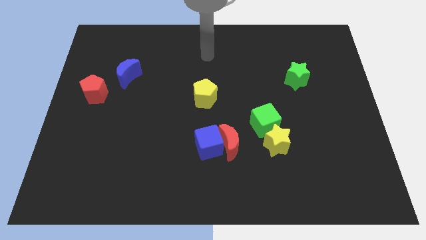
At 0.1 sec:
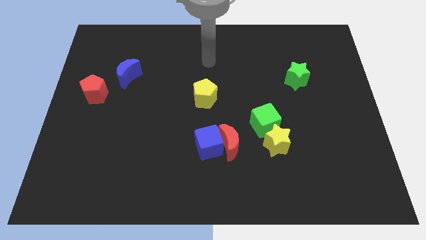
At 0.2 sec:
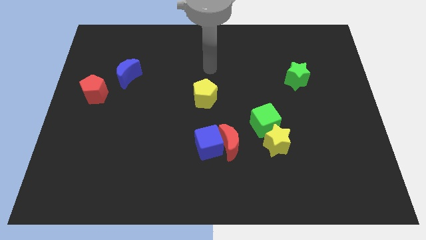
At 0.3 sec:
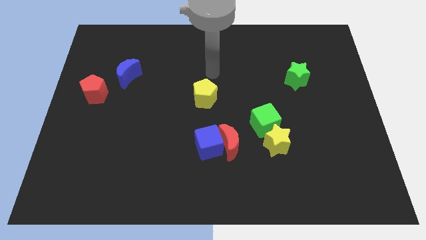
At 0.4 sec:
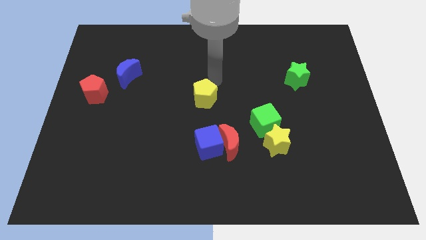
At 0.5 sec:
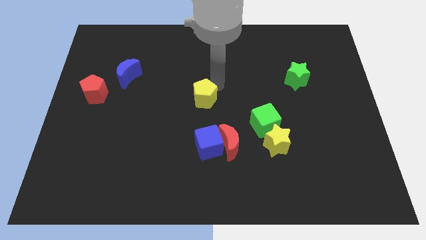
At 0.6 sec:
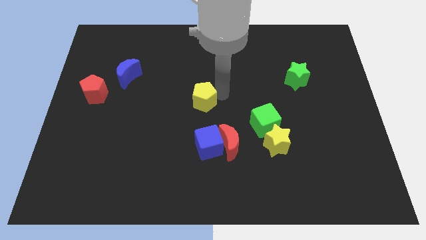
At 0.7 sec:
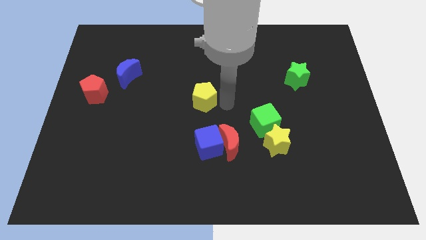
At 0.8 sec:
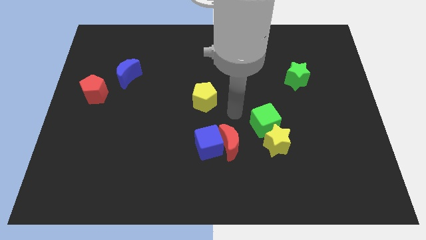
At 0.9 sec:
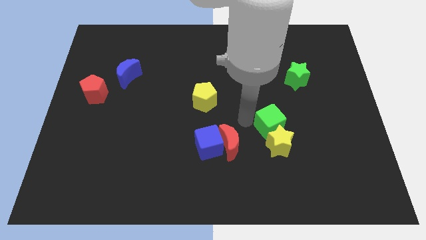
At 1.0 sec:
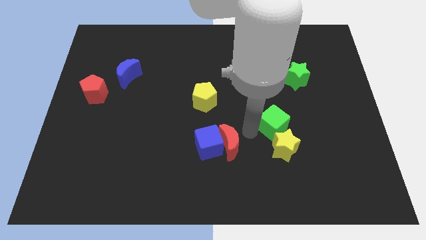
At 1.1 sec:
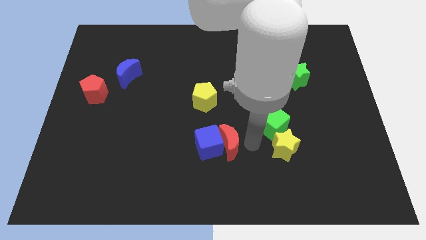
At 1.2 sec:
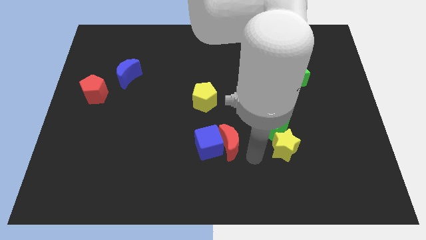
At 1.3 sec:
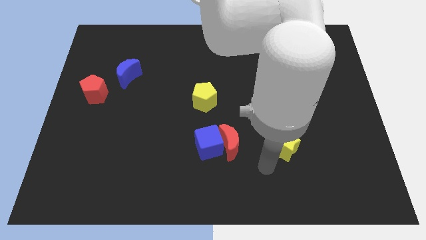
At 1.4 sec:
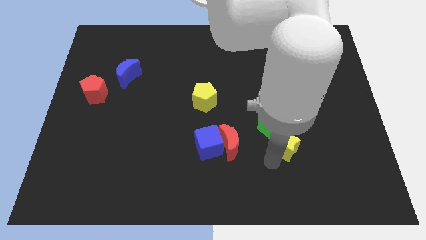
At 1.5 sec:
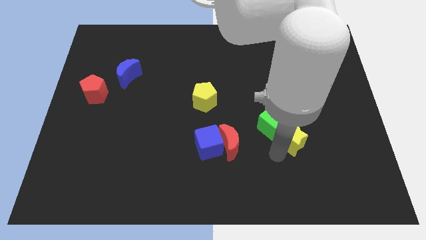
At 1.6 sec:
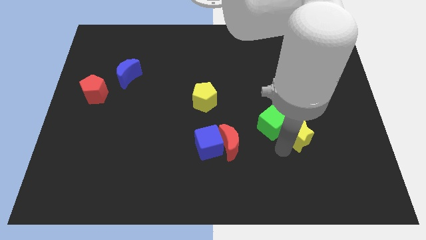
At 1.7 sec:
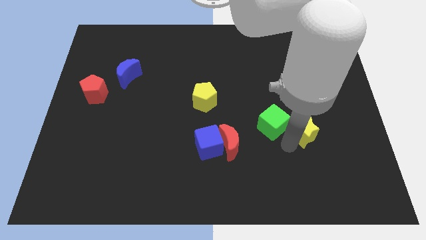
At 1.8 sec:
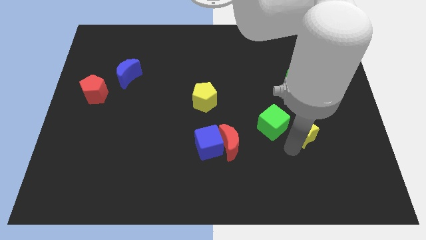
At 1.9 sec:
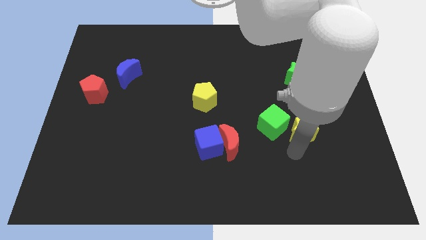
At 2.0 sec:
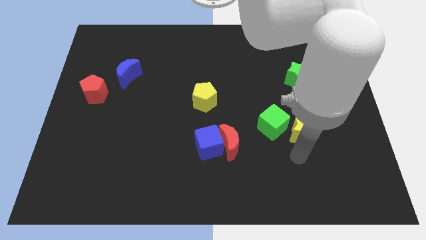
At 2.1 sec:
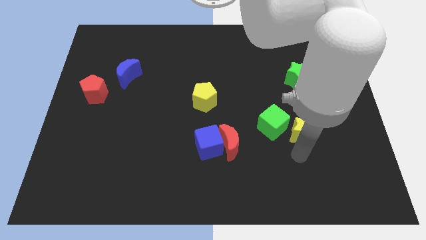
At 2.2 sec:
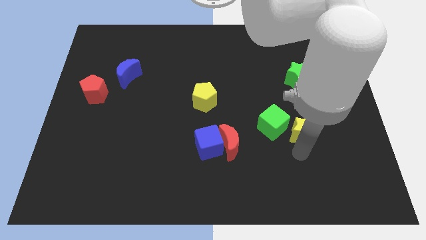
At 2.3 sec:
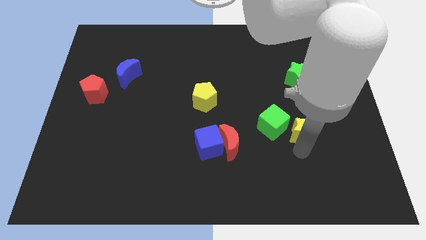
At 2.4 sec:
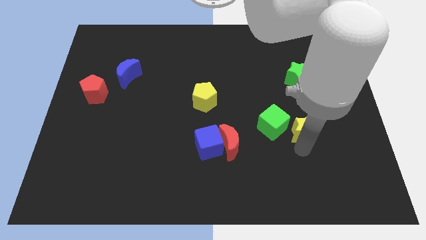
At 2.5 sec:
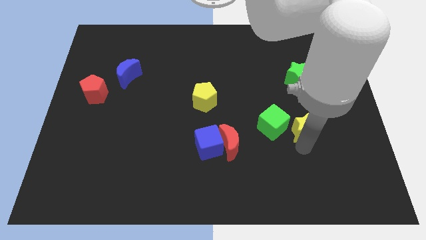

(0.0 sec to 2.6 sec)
slightly push the yellow star upwards and then right

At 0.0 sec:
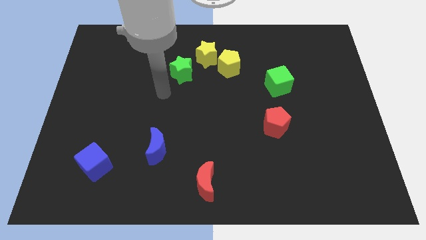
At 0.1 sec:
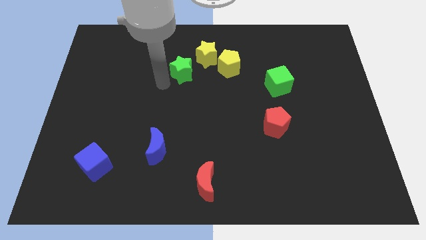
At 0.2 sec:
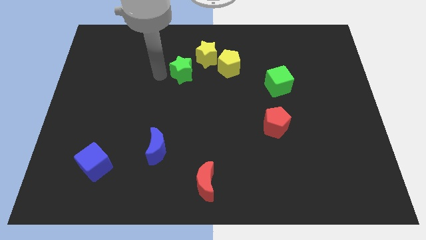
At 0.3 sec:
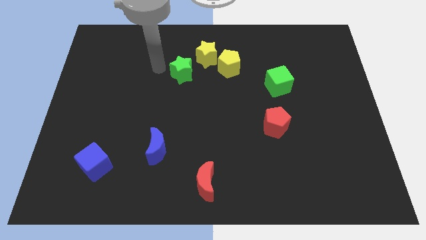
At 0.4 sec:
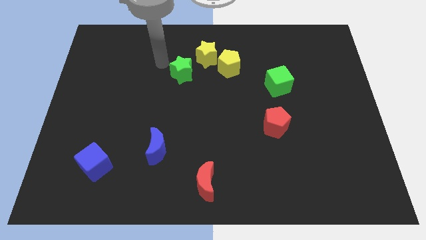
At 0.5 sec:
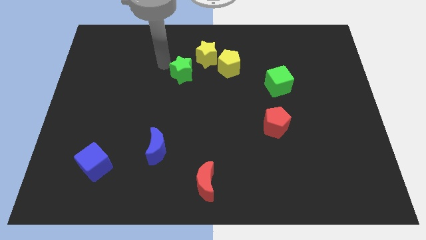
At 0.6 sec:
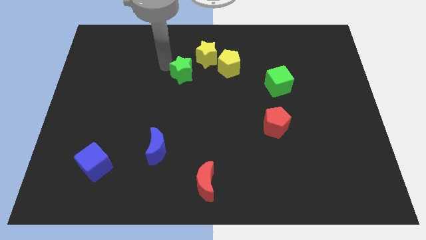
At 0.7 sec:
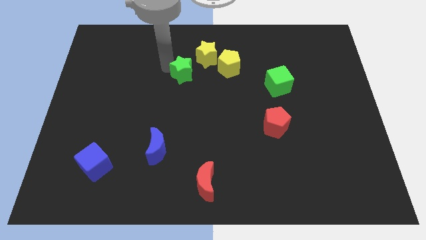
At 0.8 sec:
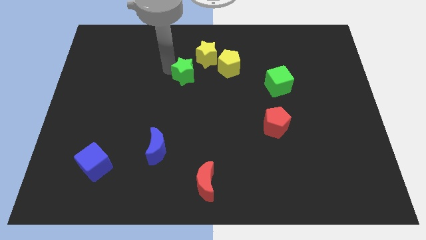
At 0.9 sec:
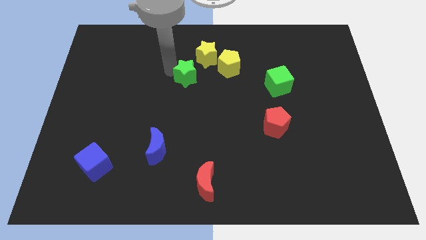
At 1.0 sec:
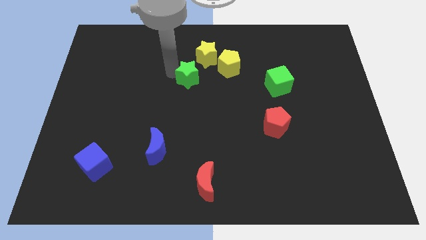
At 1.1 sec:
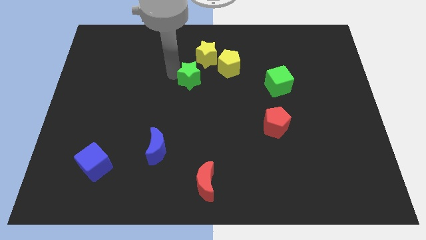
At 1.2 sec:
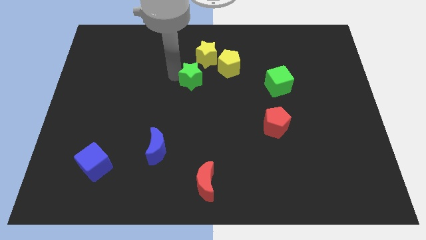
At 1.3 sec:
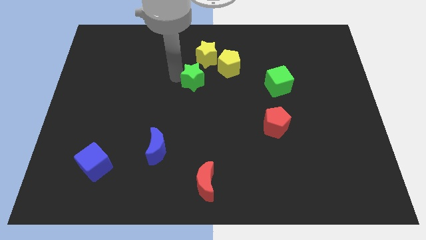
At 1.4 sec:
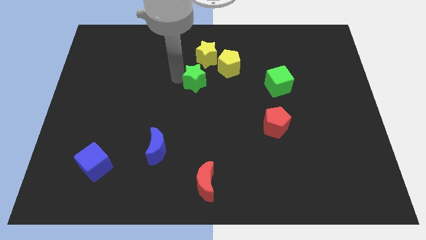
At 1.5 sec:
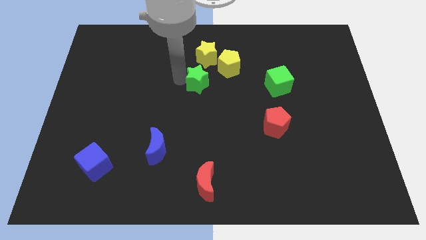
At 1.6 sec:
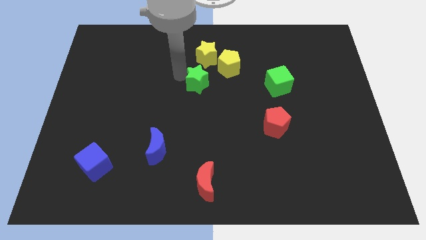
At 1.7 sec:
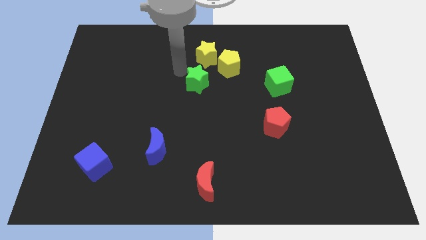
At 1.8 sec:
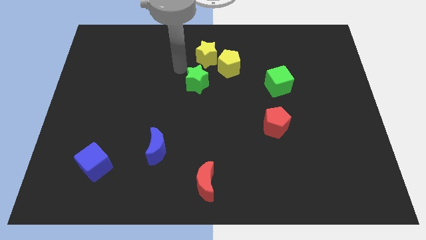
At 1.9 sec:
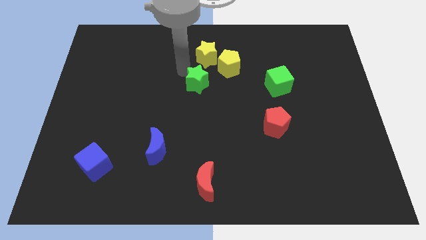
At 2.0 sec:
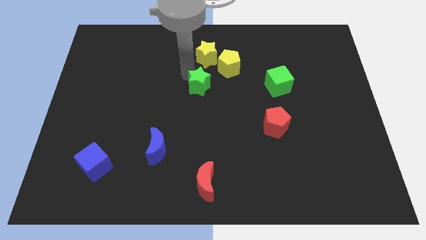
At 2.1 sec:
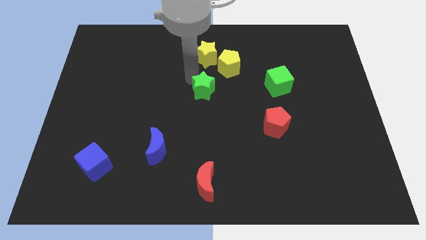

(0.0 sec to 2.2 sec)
push the green star a little down and then to the right

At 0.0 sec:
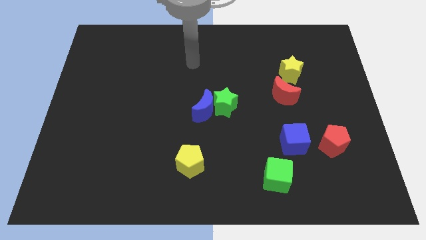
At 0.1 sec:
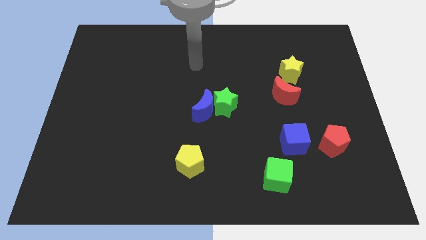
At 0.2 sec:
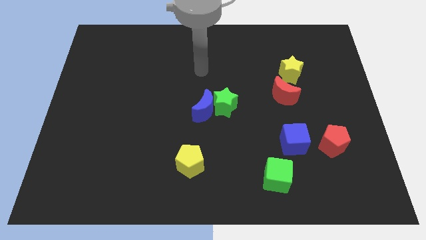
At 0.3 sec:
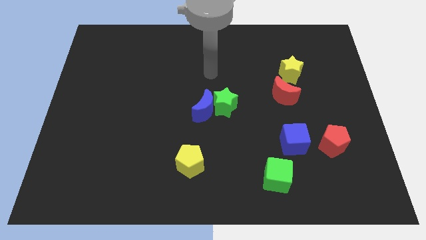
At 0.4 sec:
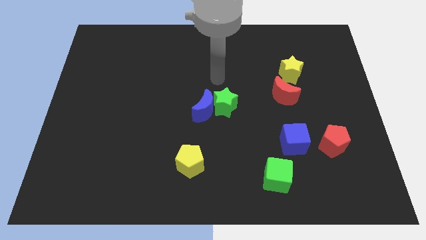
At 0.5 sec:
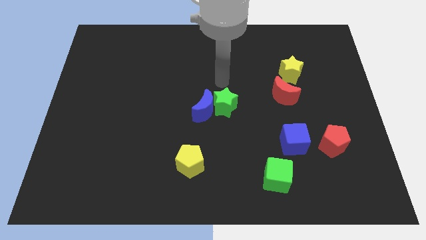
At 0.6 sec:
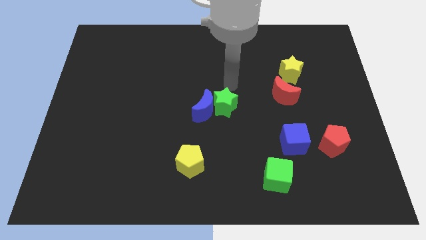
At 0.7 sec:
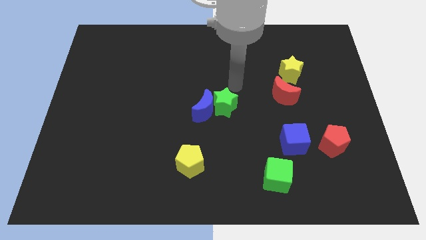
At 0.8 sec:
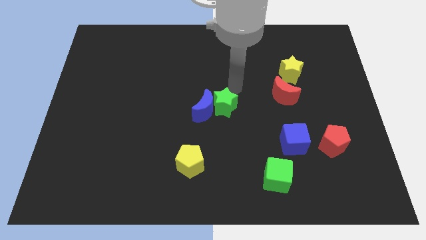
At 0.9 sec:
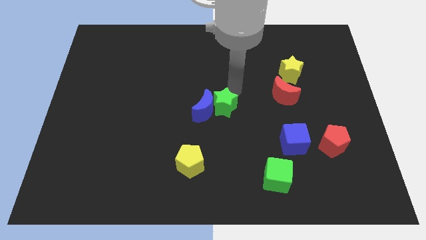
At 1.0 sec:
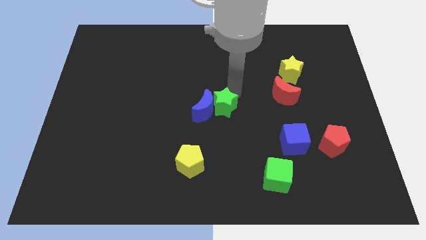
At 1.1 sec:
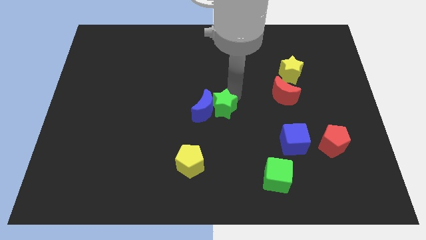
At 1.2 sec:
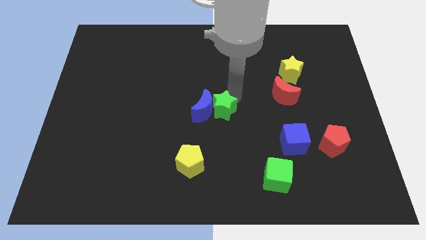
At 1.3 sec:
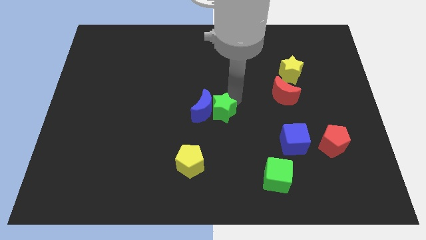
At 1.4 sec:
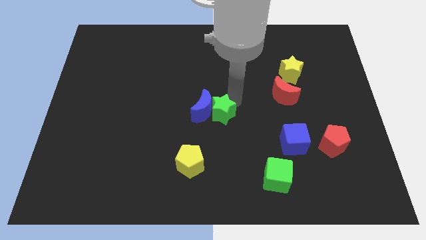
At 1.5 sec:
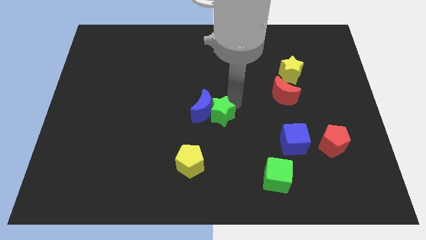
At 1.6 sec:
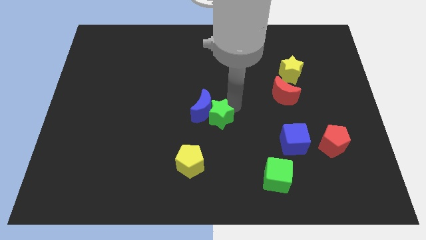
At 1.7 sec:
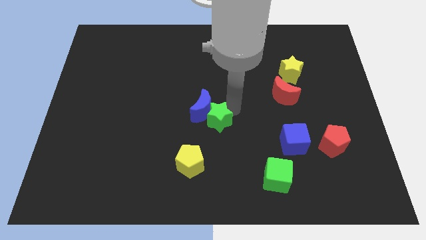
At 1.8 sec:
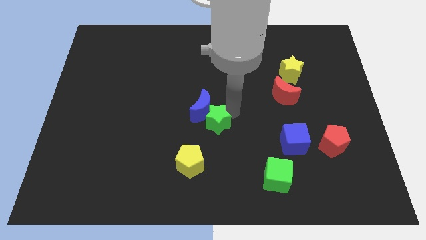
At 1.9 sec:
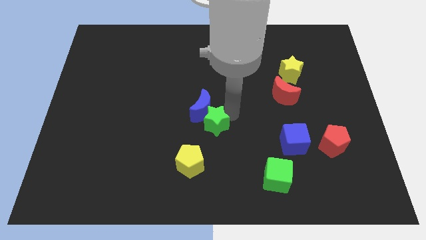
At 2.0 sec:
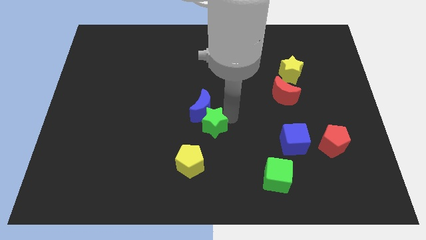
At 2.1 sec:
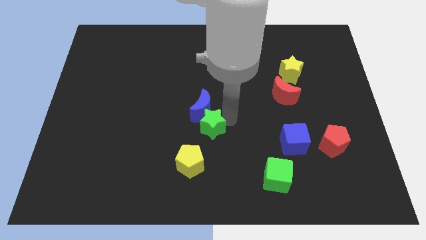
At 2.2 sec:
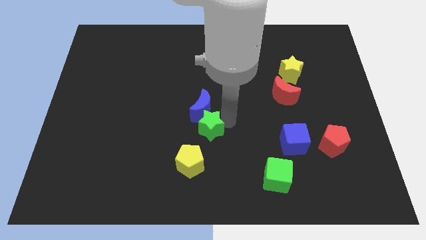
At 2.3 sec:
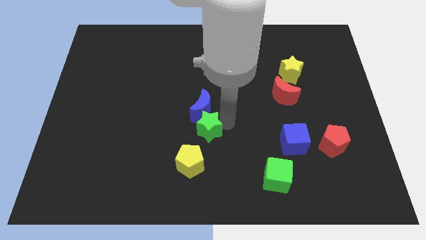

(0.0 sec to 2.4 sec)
move the green star a little bit downwards and left

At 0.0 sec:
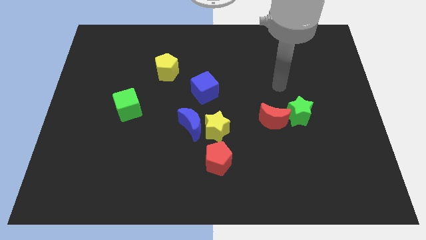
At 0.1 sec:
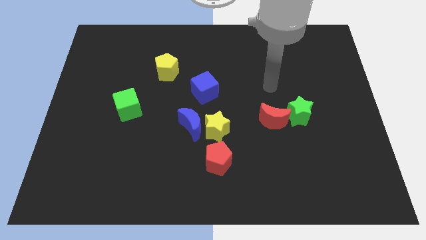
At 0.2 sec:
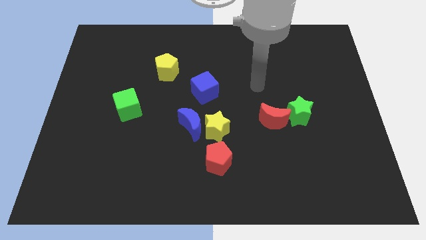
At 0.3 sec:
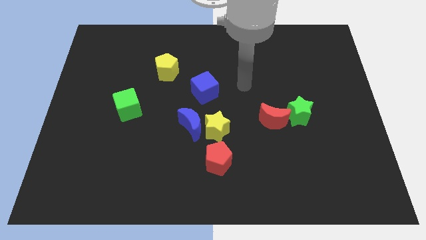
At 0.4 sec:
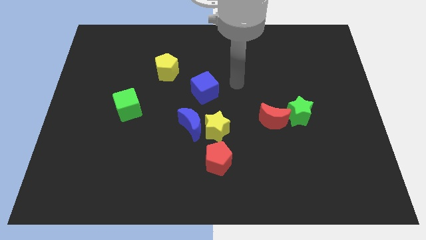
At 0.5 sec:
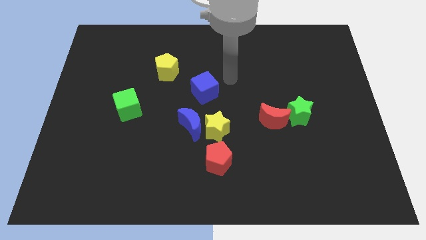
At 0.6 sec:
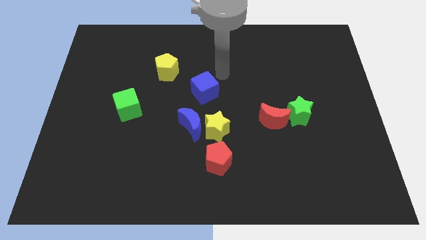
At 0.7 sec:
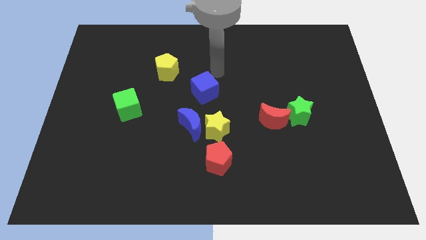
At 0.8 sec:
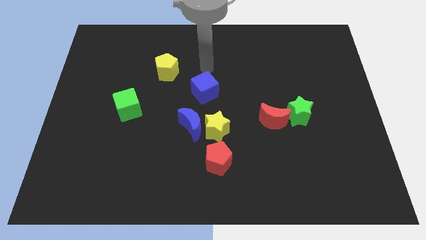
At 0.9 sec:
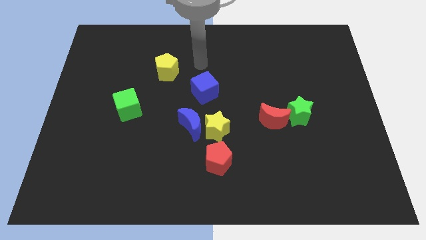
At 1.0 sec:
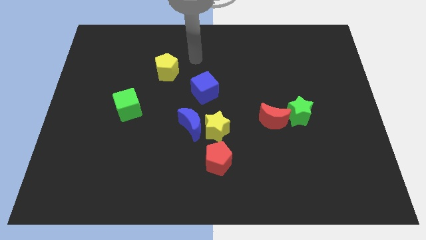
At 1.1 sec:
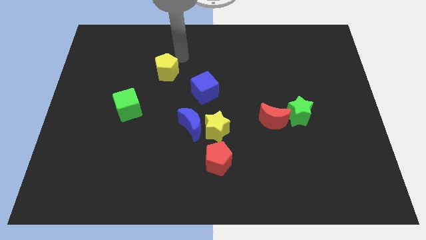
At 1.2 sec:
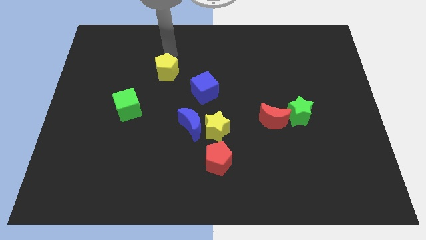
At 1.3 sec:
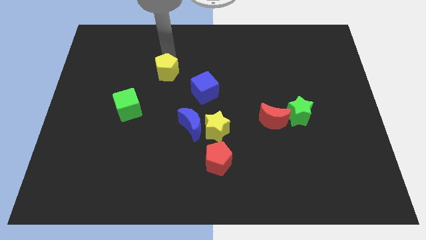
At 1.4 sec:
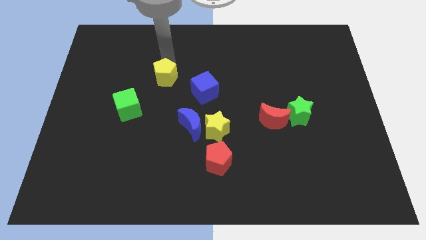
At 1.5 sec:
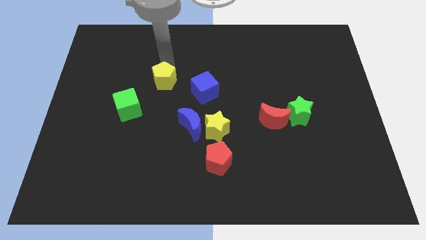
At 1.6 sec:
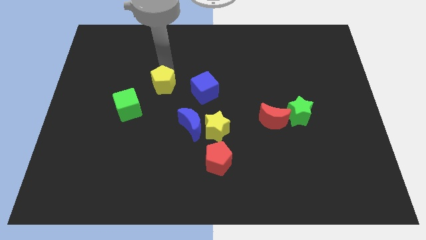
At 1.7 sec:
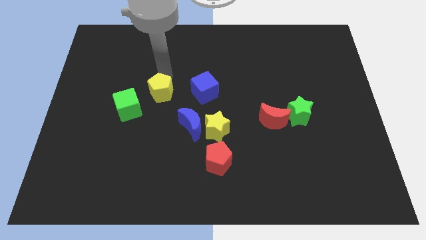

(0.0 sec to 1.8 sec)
move the yellow pentagon a little downwards
